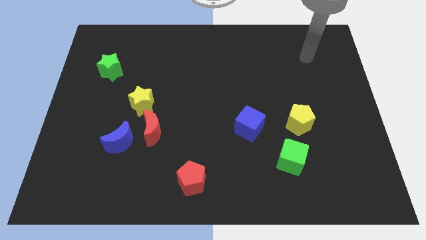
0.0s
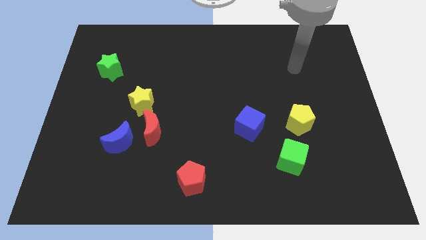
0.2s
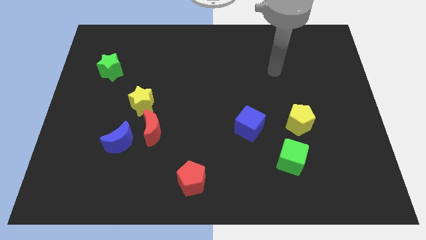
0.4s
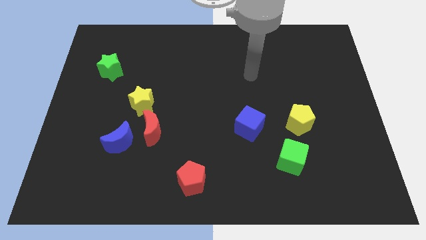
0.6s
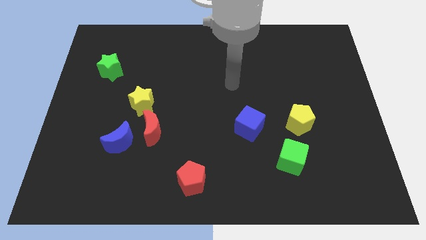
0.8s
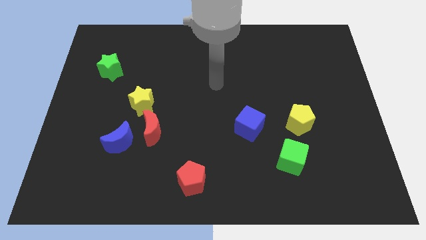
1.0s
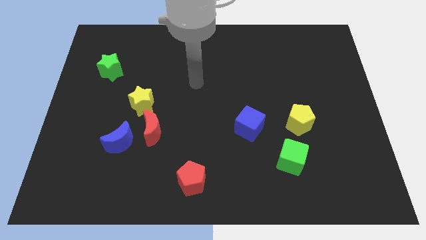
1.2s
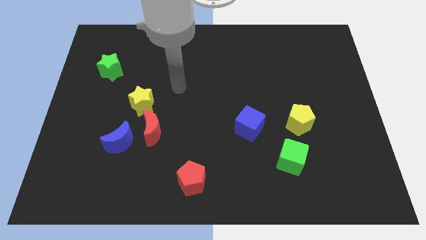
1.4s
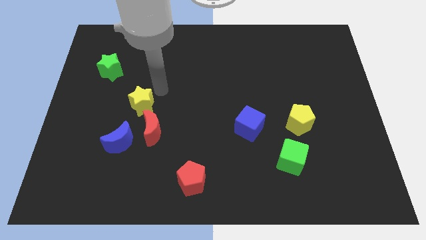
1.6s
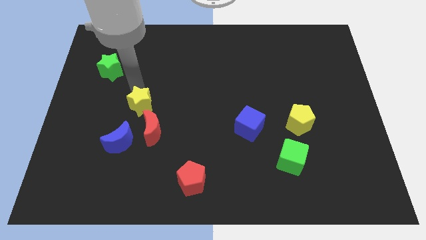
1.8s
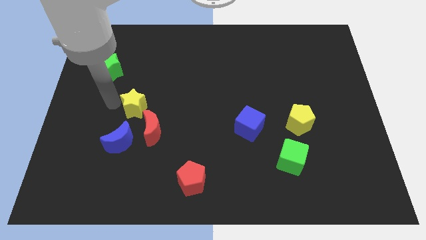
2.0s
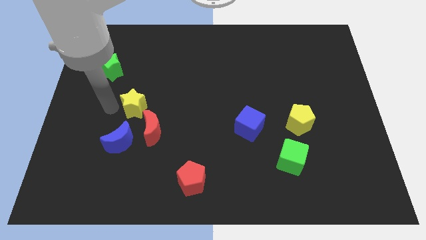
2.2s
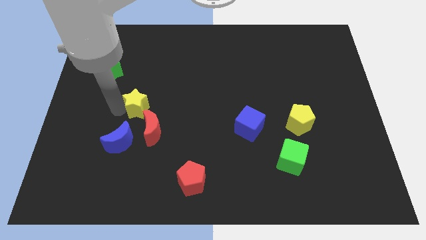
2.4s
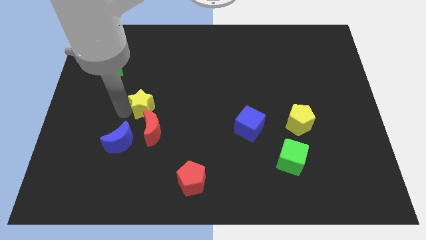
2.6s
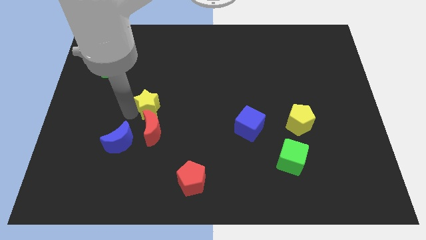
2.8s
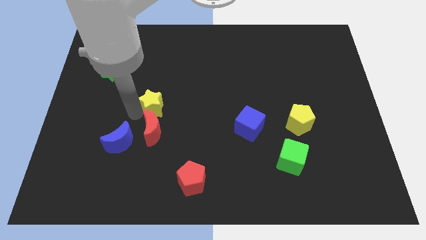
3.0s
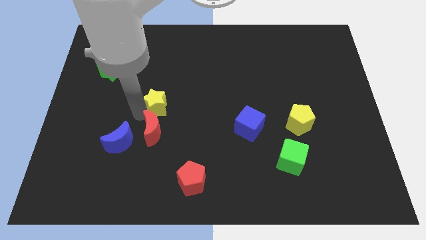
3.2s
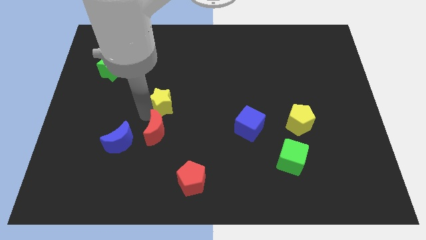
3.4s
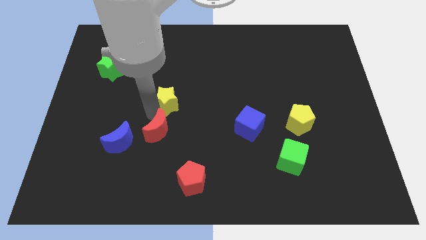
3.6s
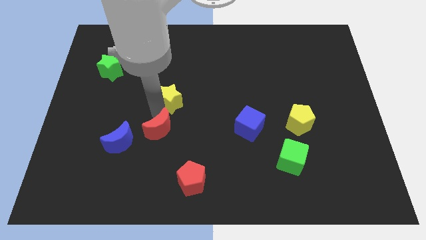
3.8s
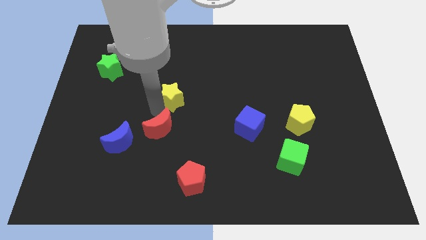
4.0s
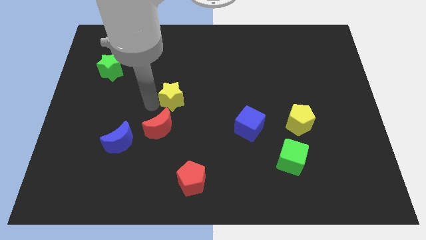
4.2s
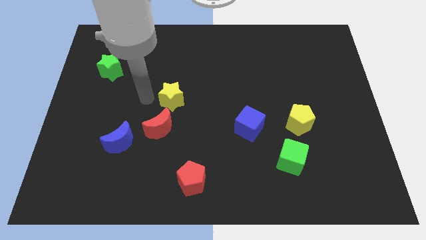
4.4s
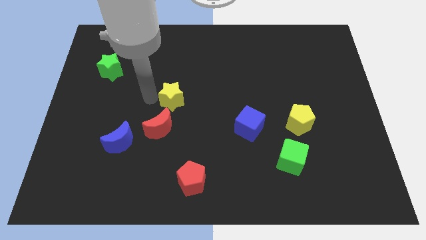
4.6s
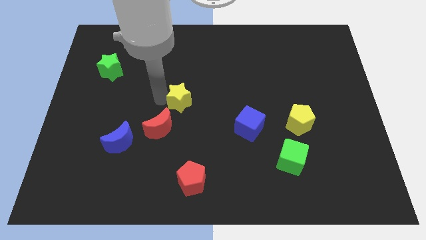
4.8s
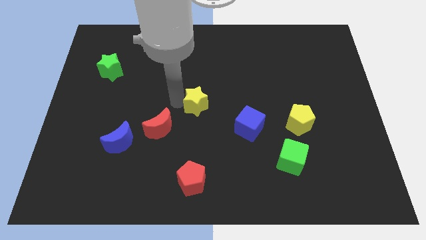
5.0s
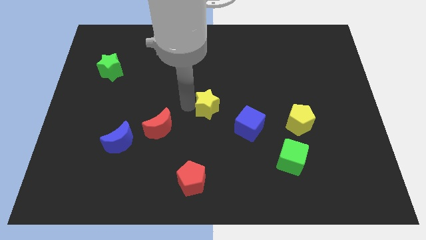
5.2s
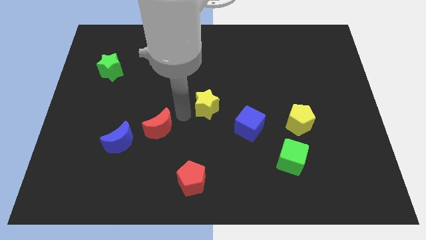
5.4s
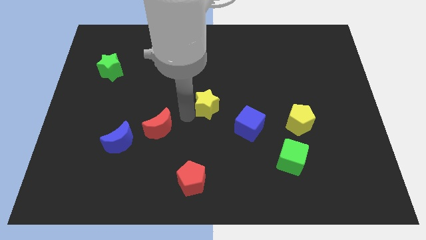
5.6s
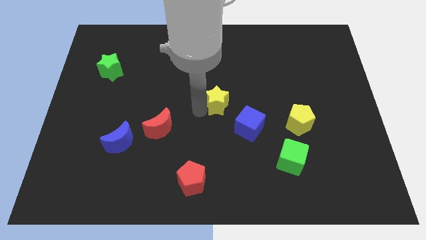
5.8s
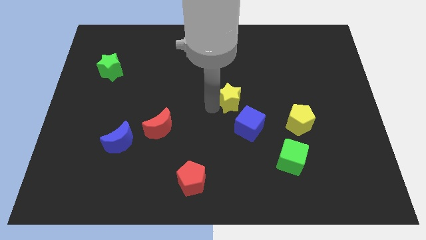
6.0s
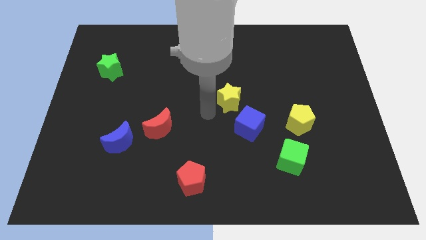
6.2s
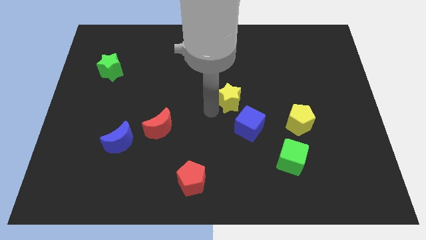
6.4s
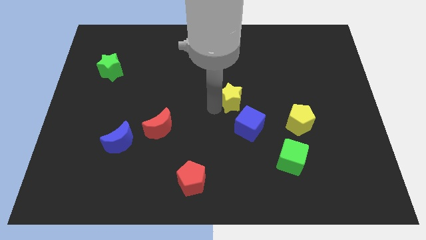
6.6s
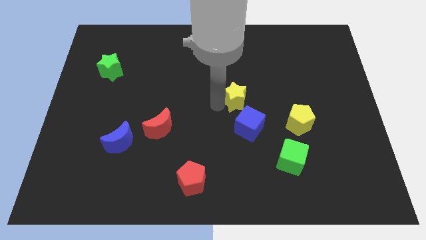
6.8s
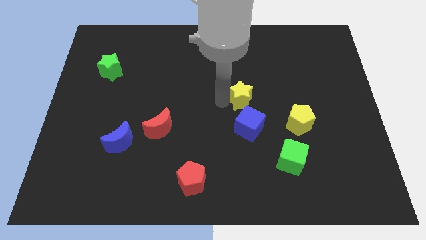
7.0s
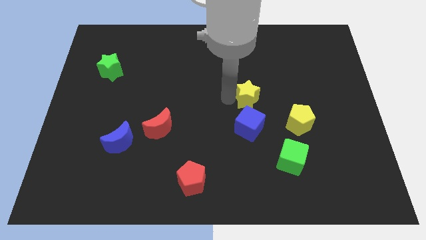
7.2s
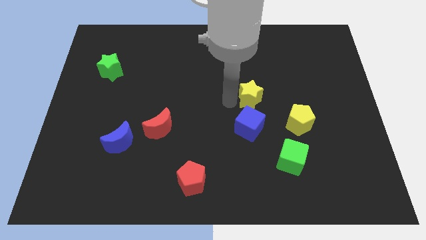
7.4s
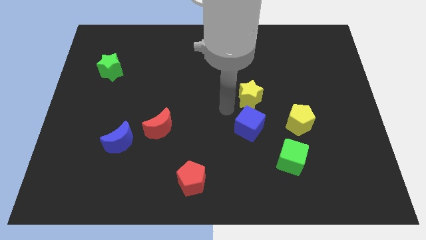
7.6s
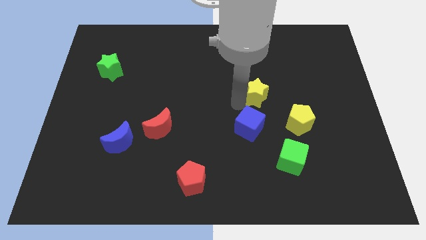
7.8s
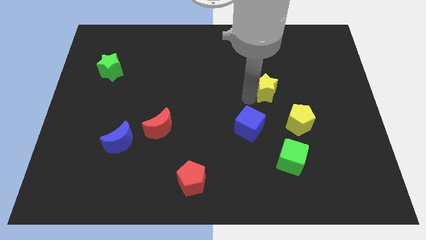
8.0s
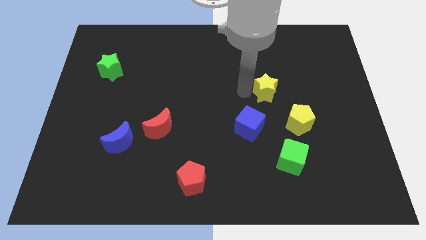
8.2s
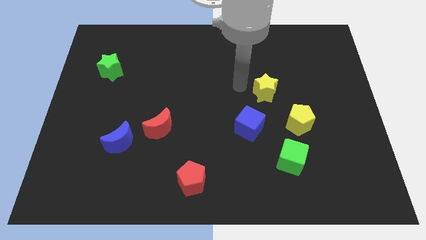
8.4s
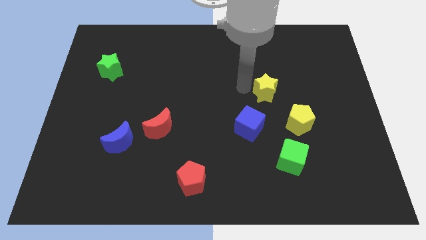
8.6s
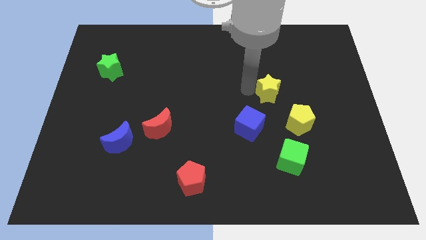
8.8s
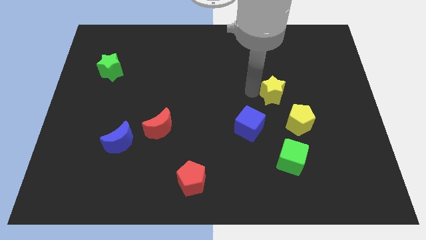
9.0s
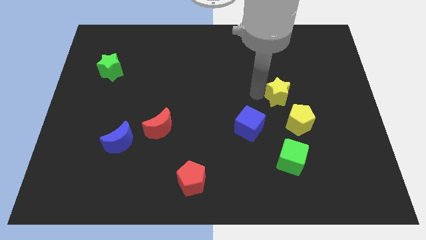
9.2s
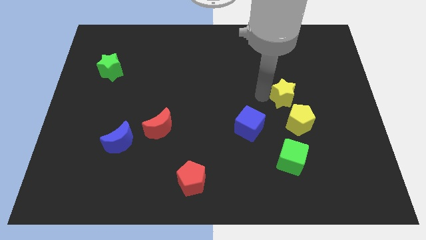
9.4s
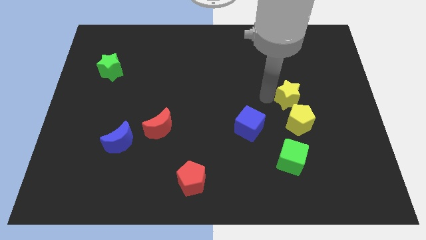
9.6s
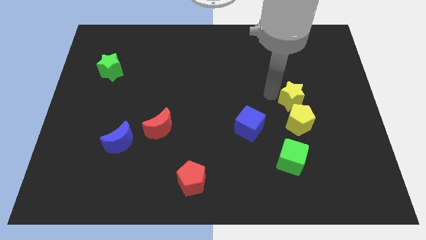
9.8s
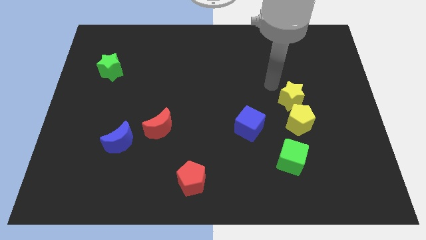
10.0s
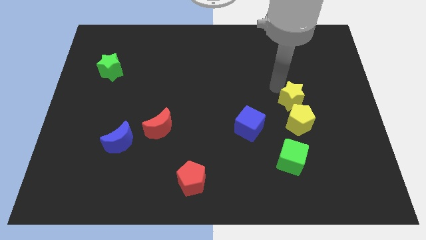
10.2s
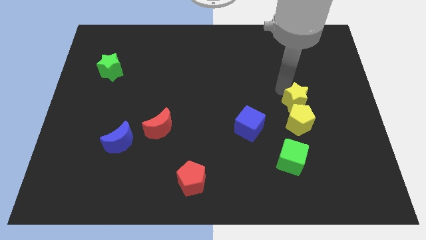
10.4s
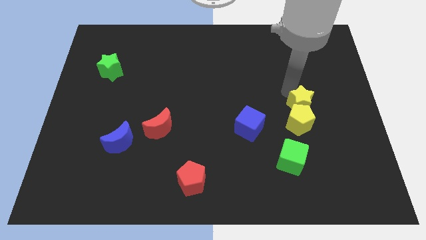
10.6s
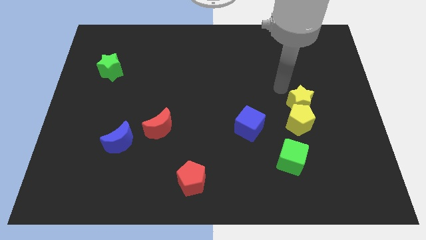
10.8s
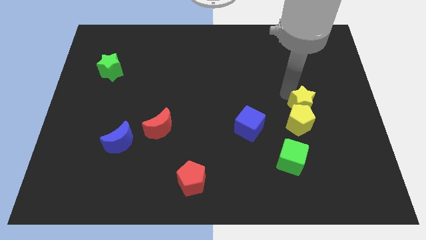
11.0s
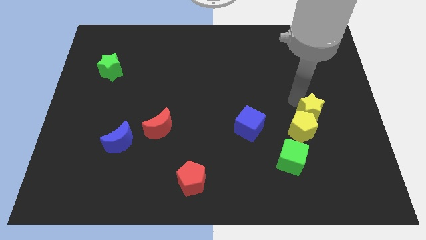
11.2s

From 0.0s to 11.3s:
move the yellow star just right of the blue cube

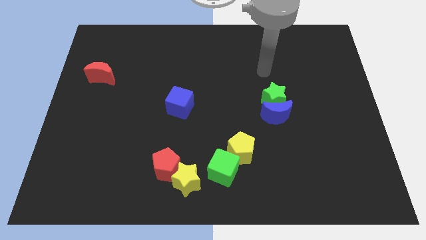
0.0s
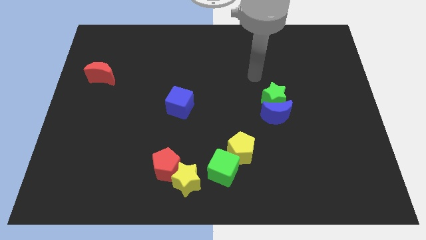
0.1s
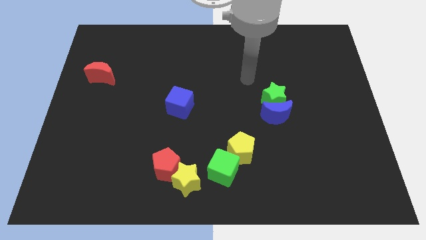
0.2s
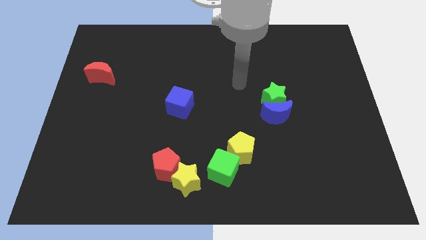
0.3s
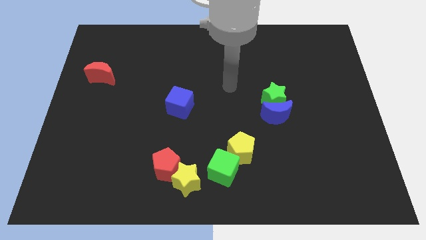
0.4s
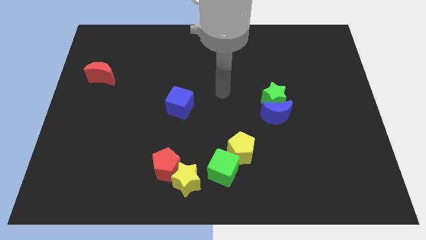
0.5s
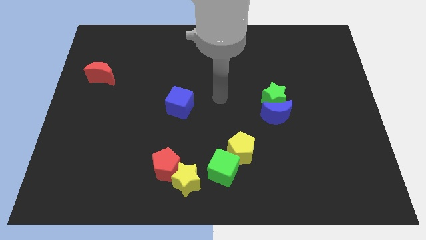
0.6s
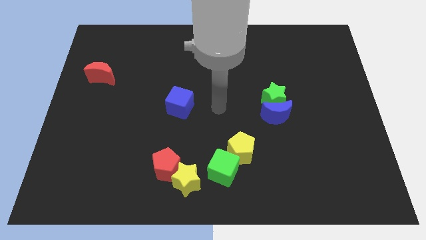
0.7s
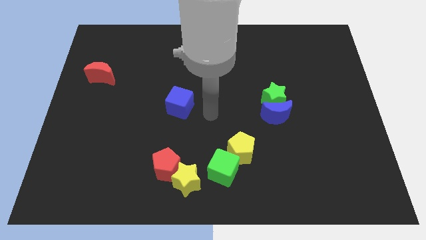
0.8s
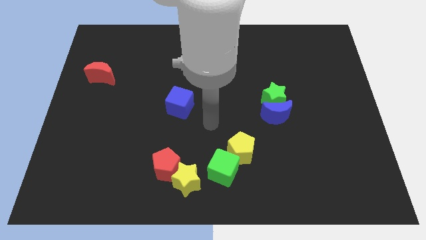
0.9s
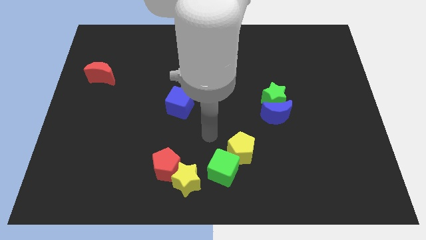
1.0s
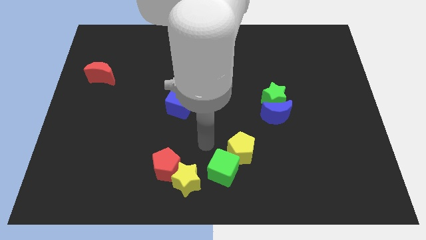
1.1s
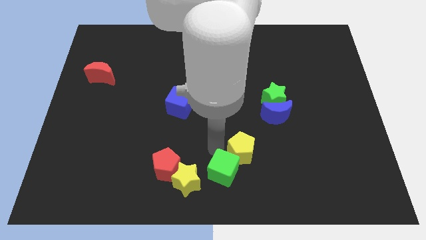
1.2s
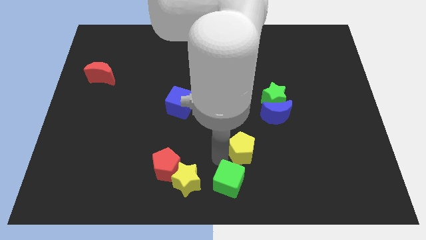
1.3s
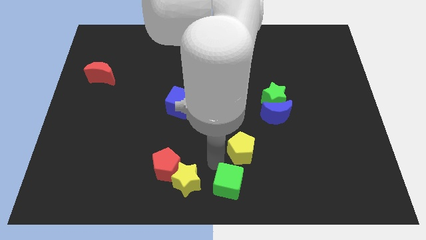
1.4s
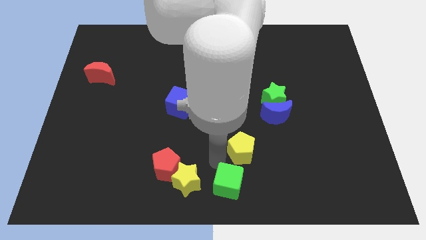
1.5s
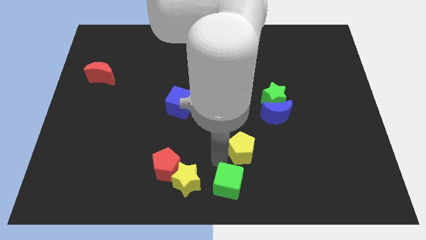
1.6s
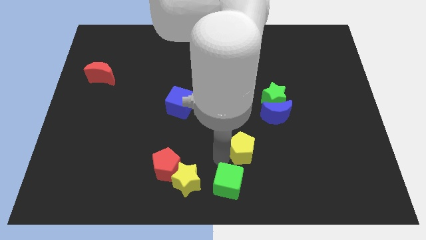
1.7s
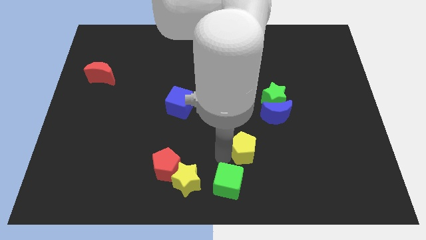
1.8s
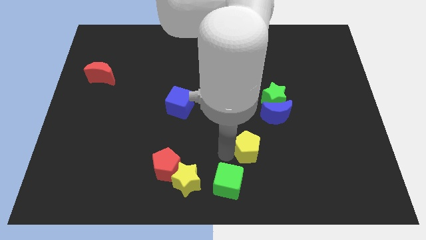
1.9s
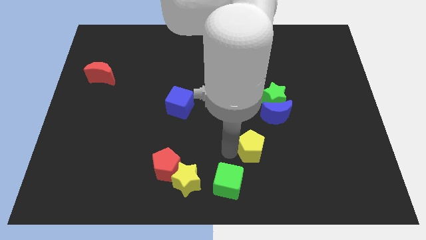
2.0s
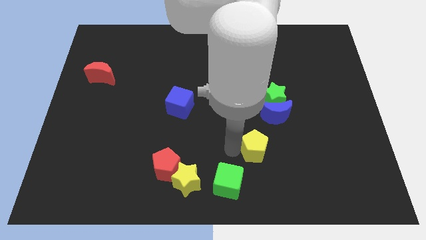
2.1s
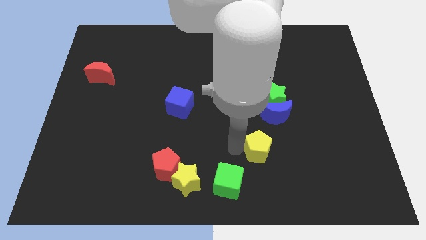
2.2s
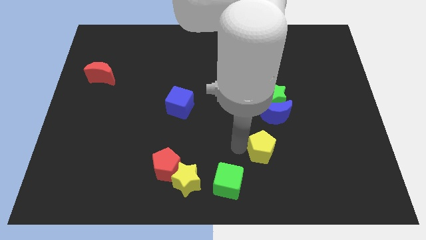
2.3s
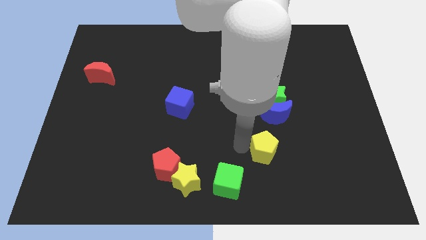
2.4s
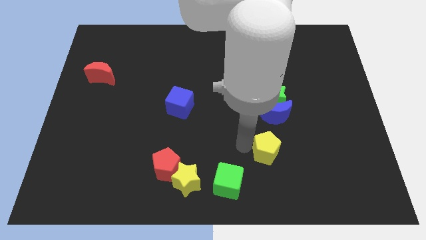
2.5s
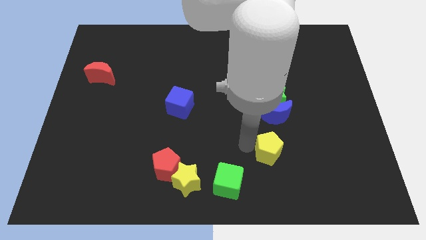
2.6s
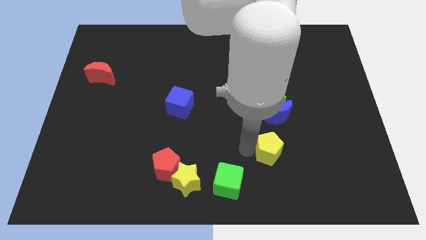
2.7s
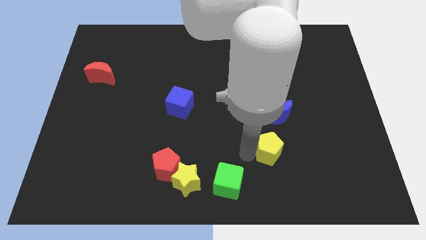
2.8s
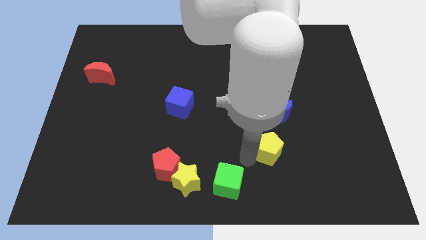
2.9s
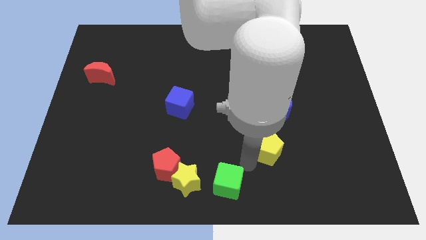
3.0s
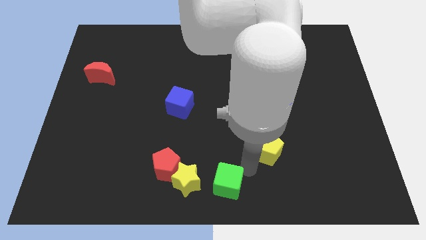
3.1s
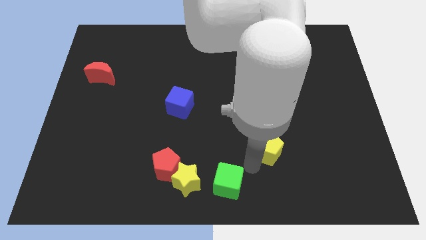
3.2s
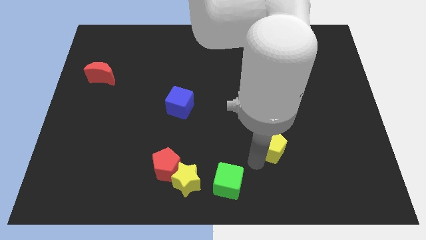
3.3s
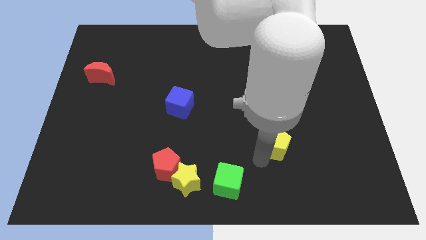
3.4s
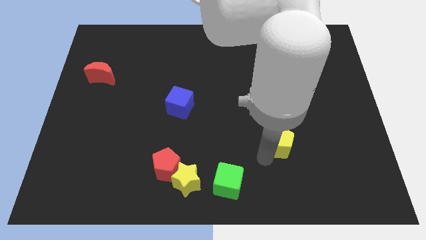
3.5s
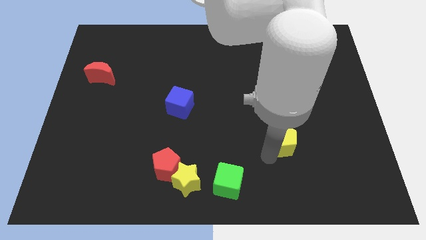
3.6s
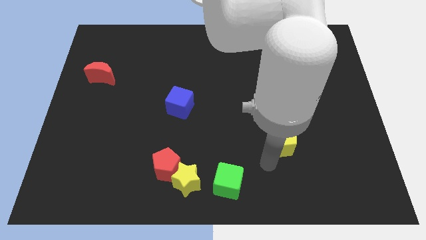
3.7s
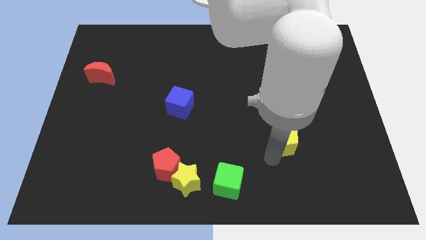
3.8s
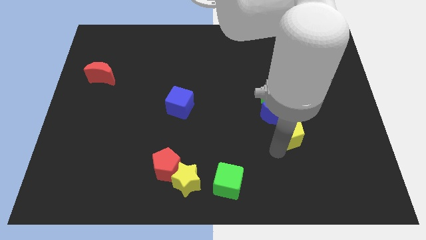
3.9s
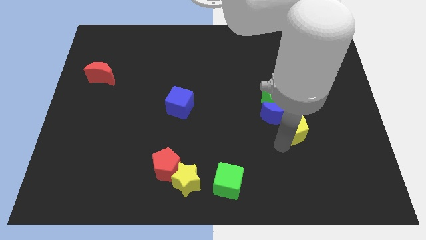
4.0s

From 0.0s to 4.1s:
push the yellow pentagon to the bottom right of the green star
